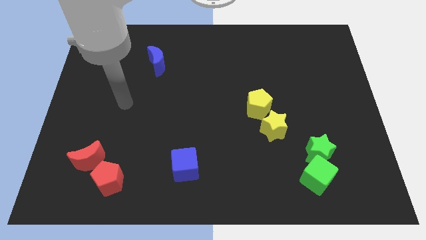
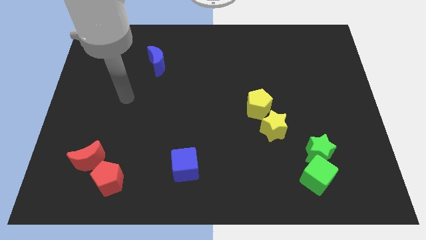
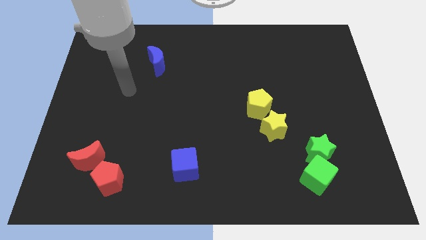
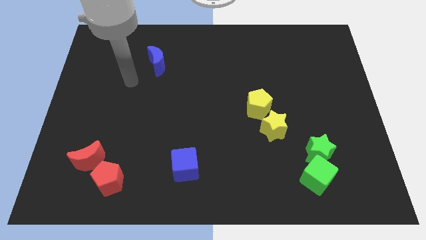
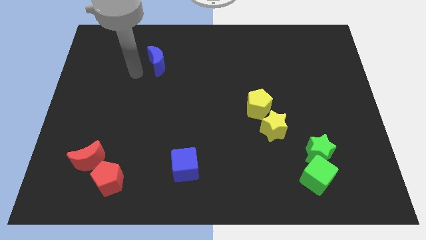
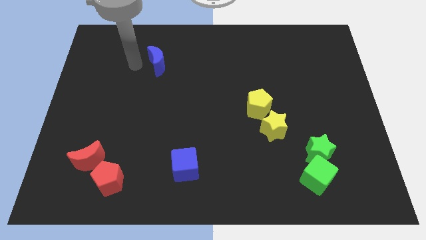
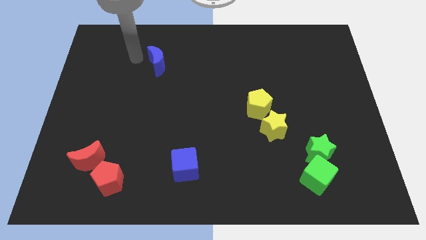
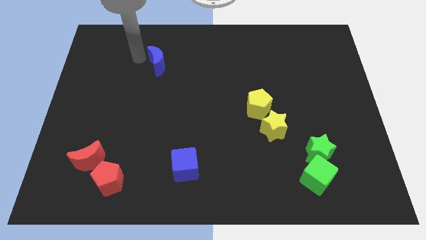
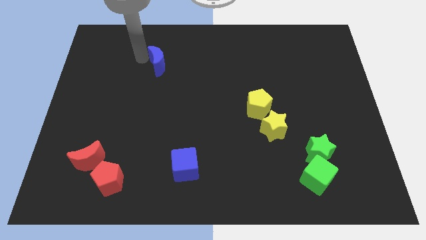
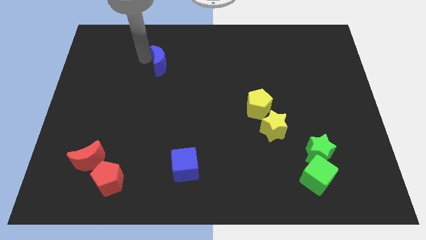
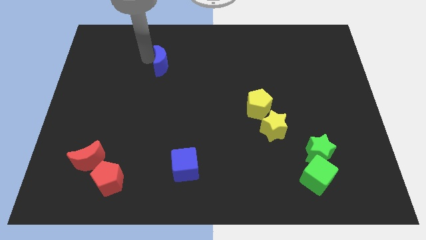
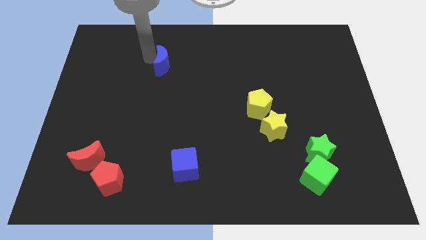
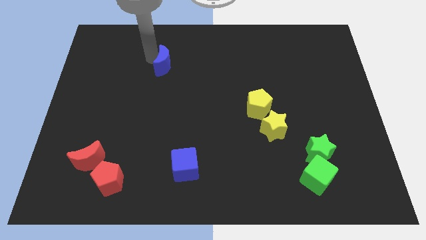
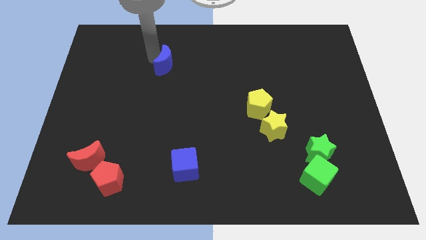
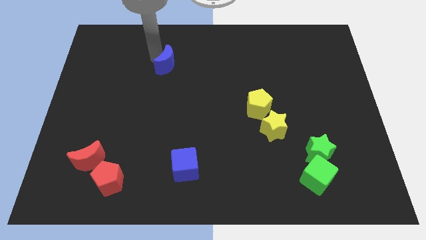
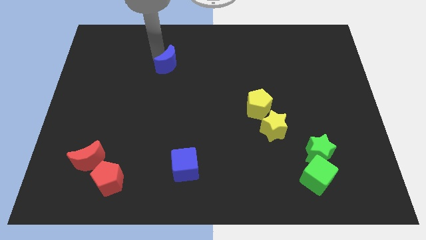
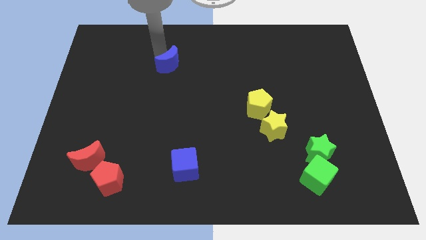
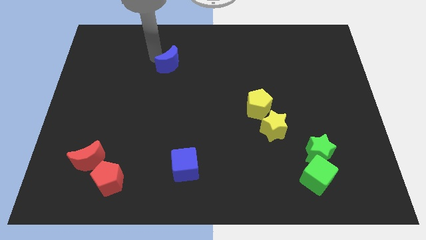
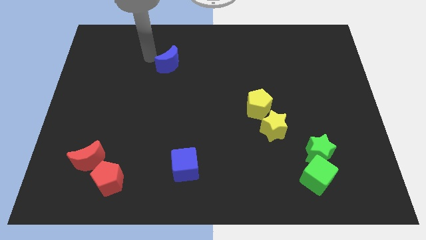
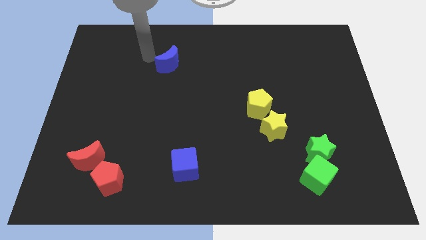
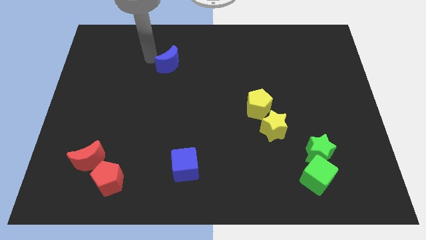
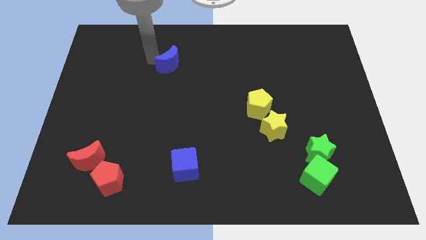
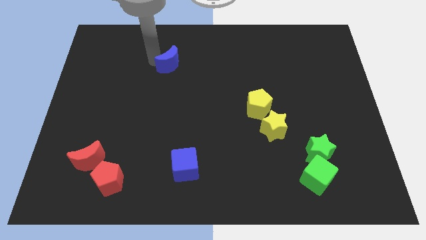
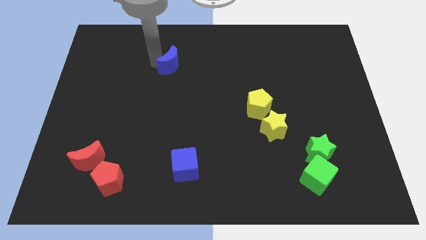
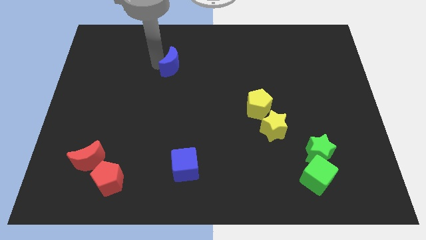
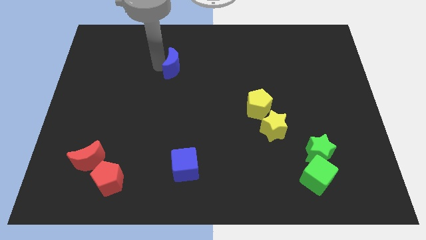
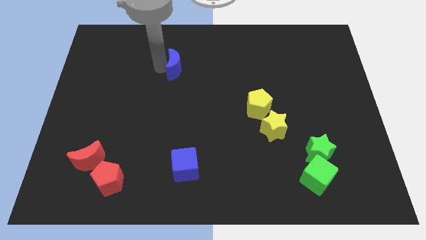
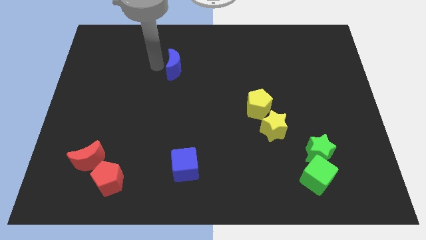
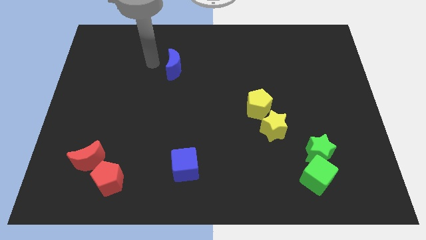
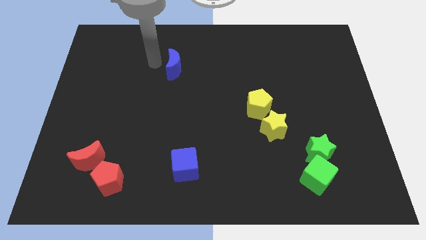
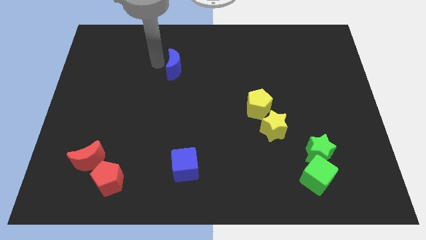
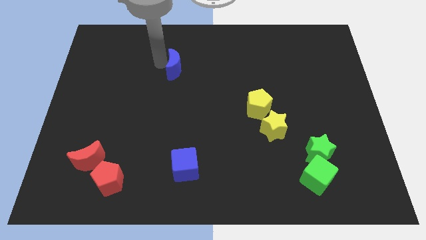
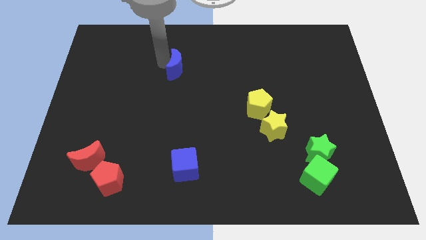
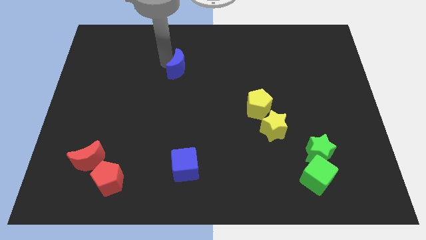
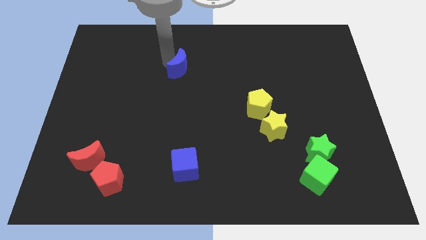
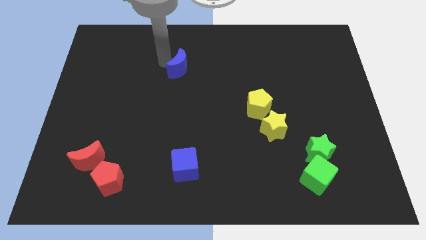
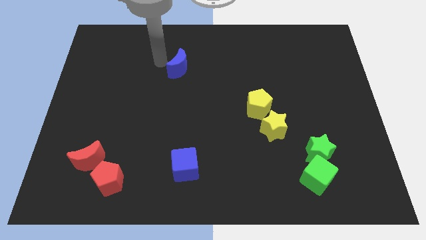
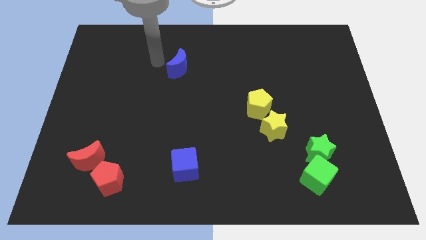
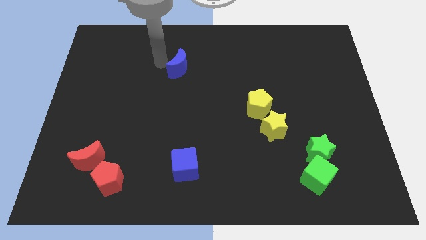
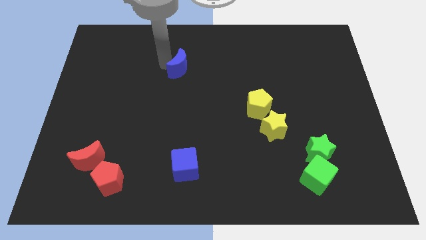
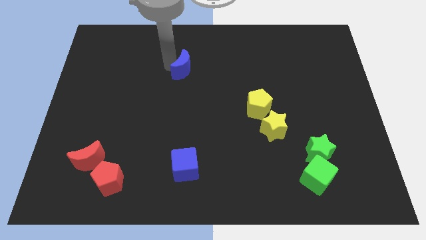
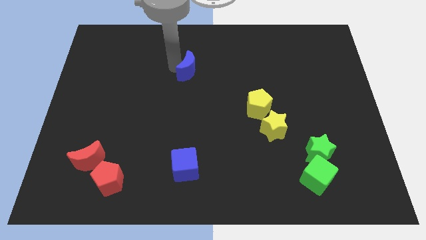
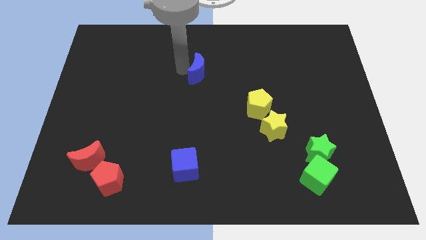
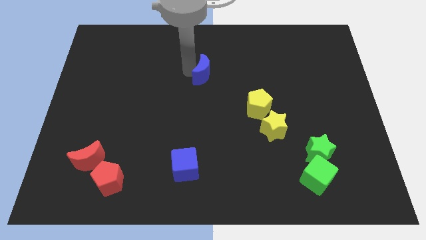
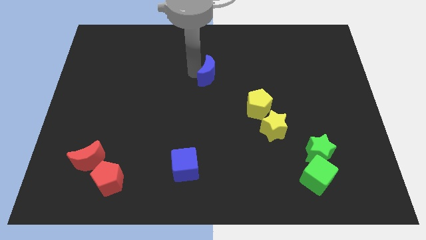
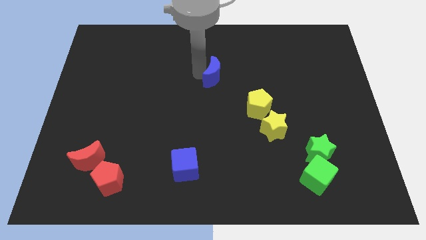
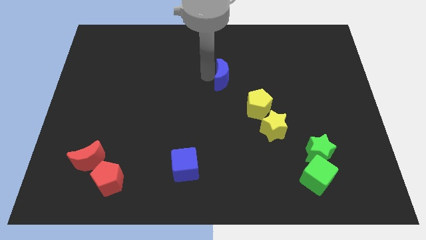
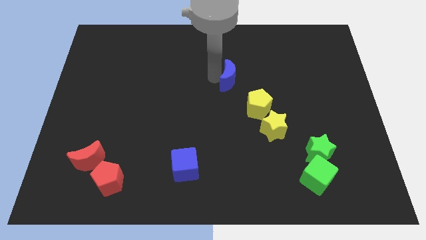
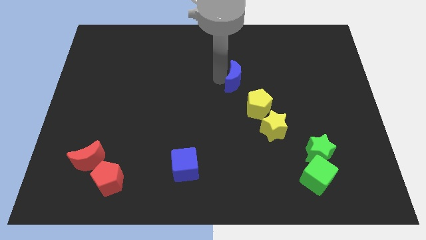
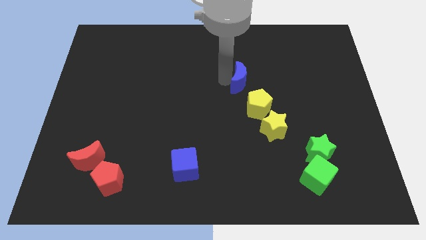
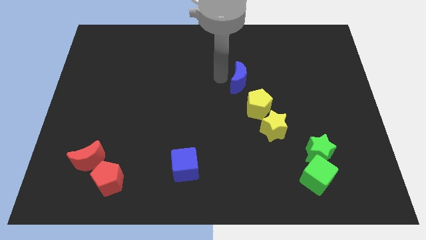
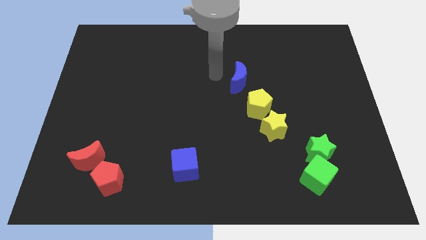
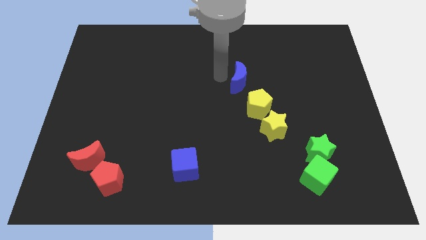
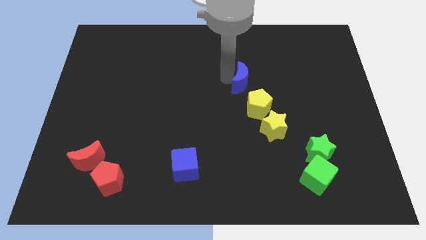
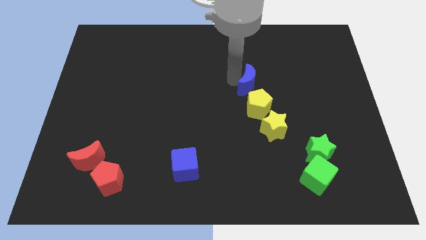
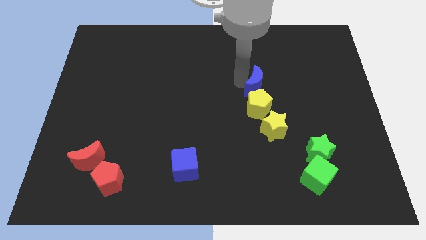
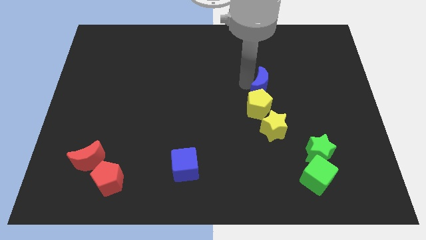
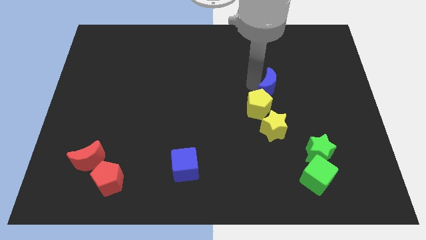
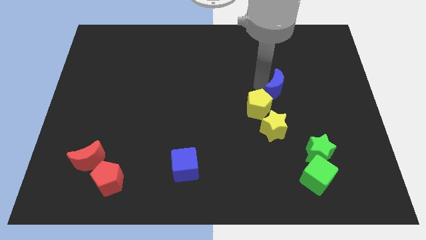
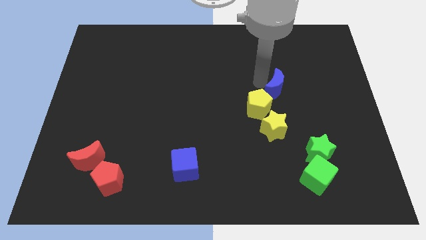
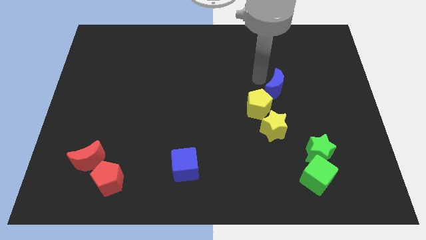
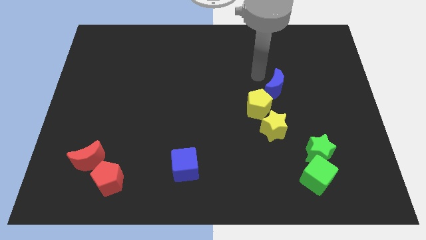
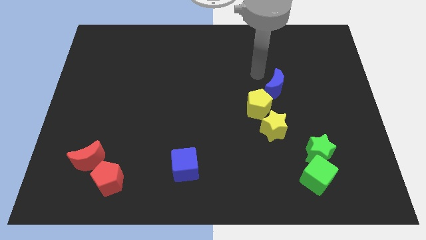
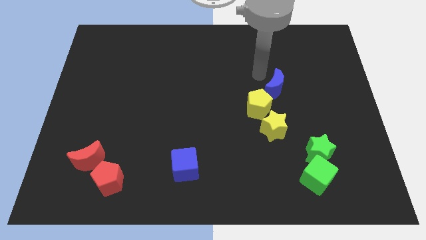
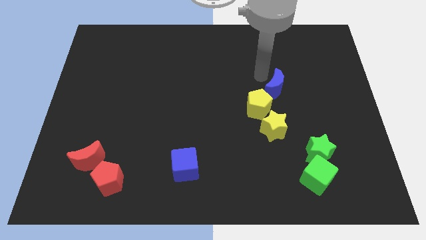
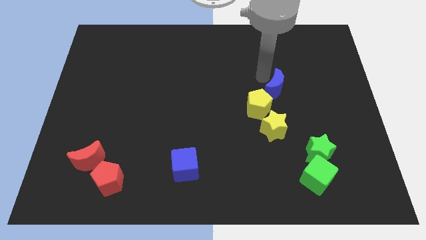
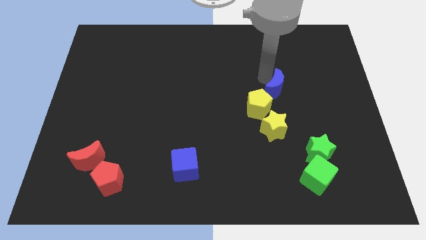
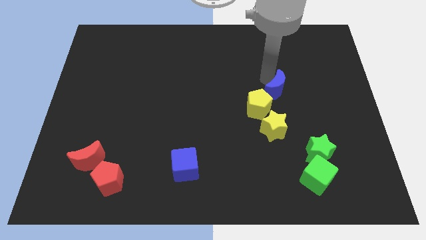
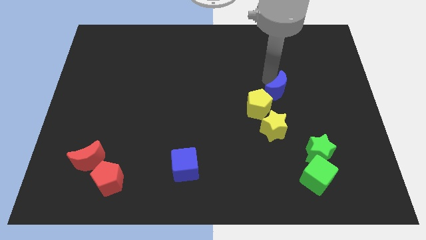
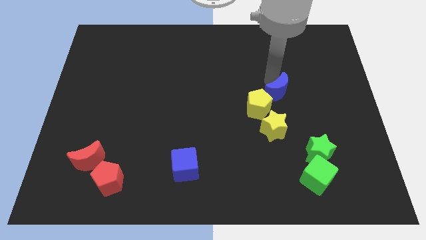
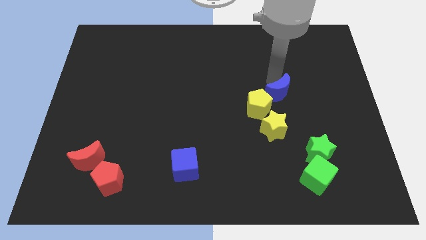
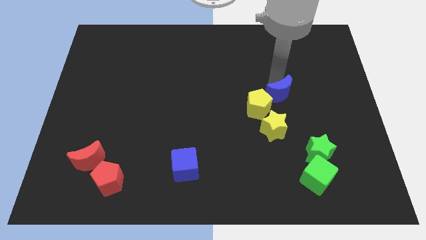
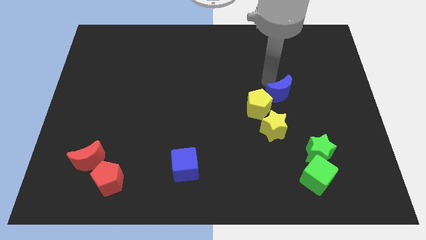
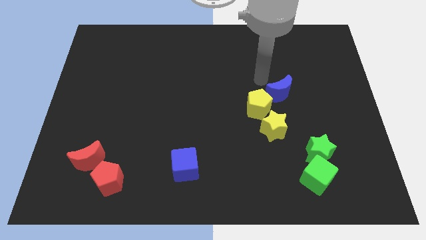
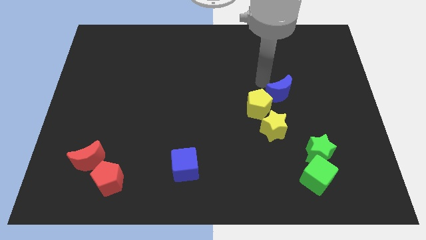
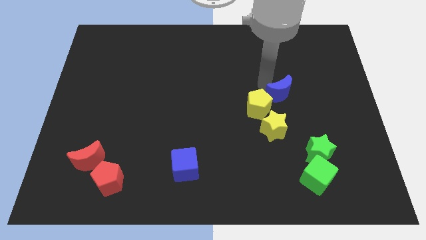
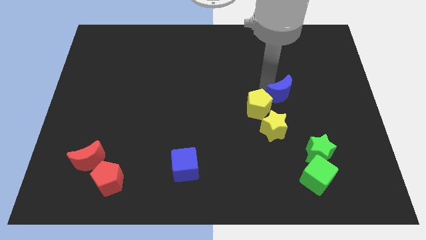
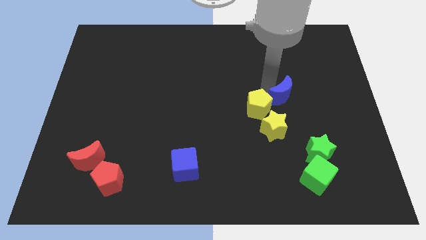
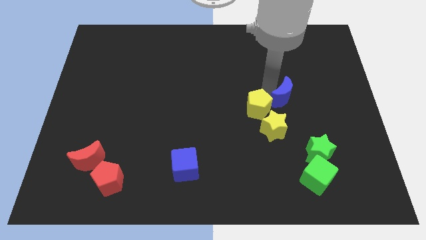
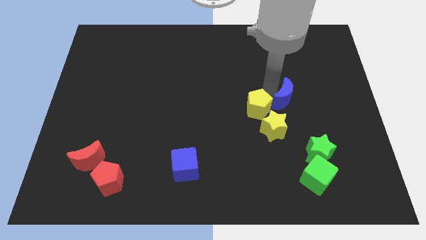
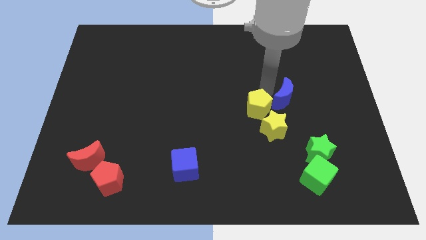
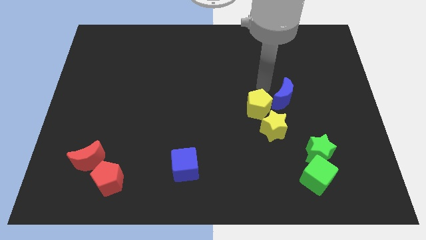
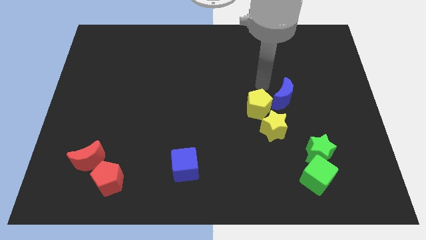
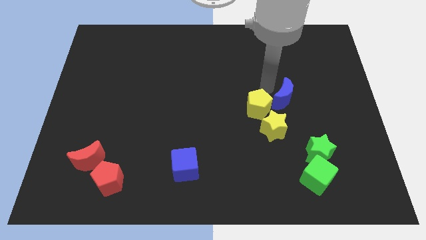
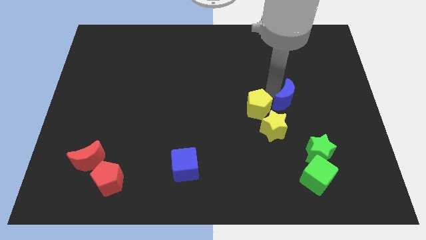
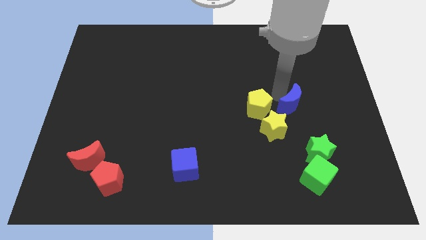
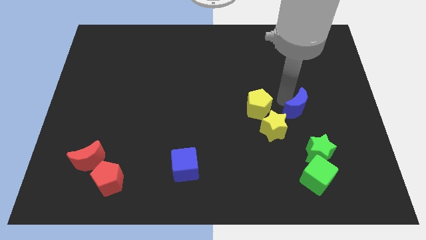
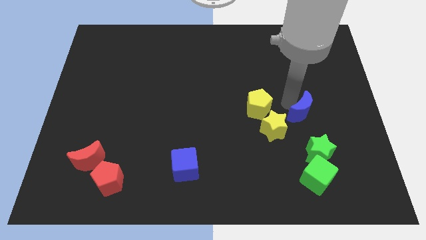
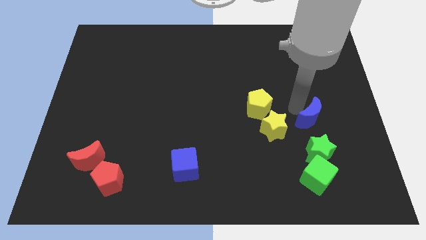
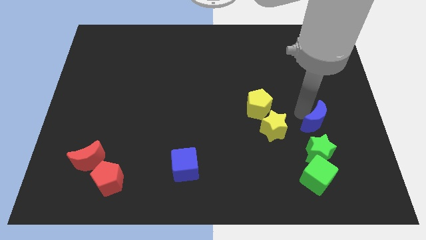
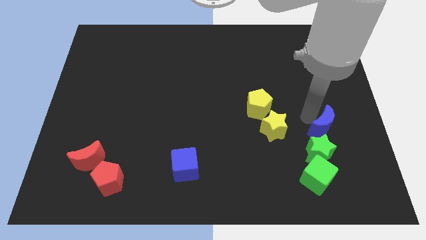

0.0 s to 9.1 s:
slide the blue moon to the top right of the green star
